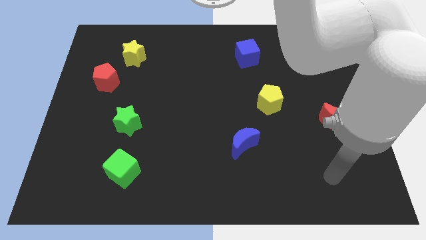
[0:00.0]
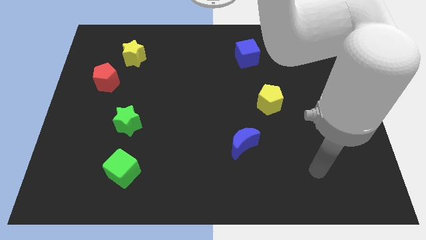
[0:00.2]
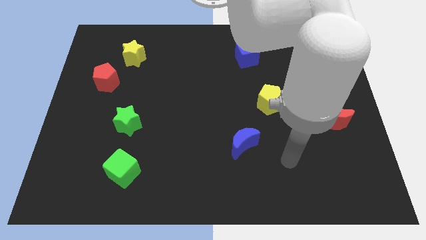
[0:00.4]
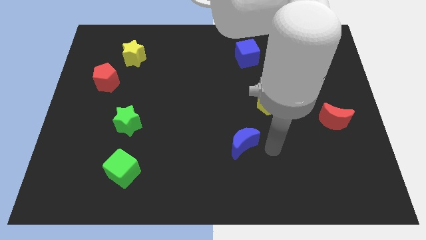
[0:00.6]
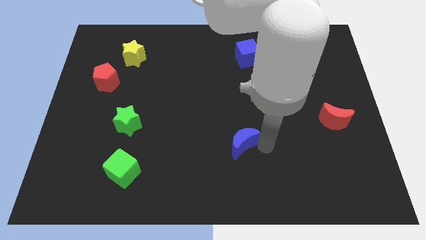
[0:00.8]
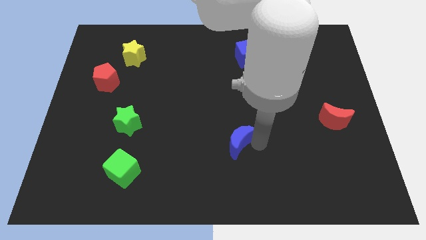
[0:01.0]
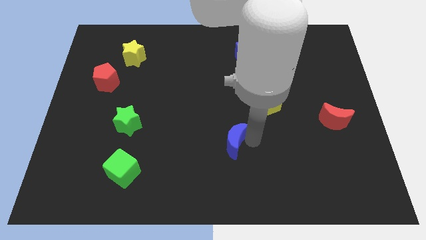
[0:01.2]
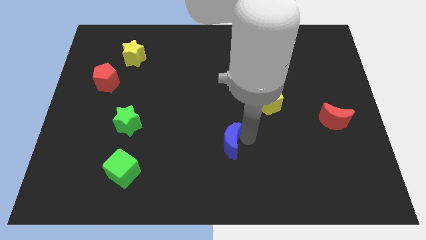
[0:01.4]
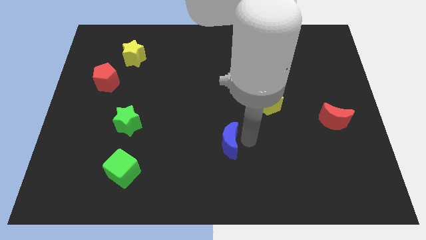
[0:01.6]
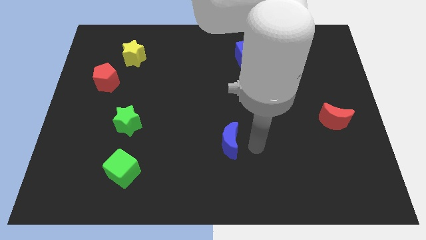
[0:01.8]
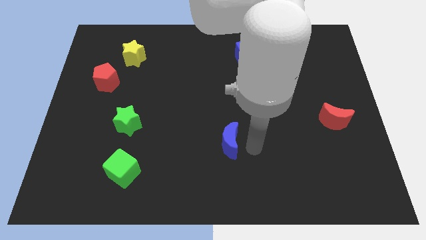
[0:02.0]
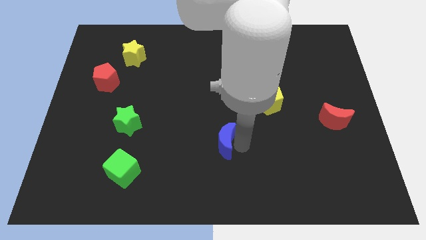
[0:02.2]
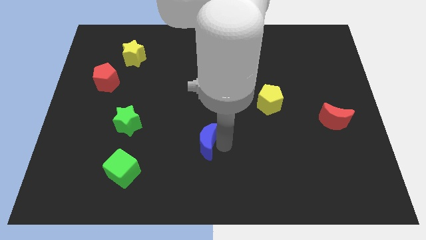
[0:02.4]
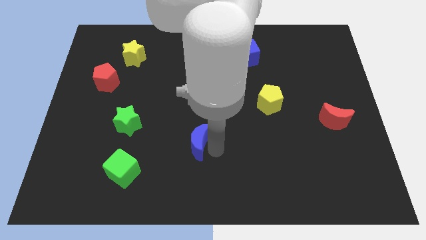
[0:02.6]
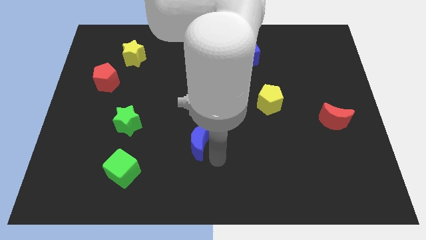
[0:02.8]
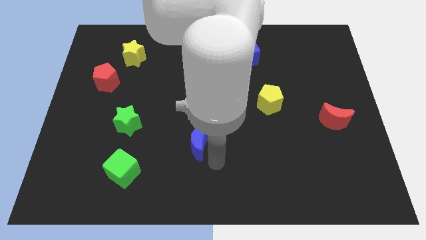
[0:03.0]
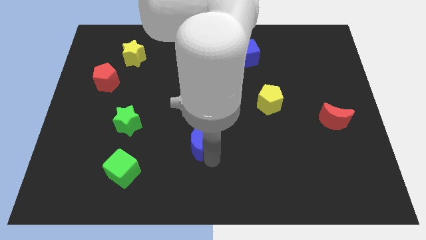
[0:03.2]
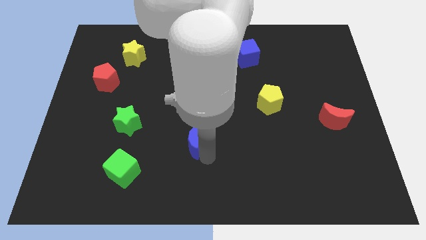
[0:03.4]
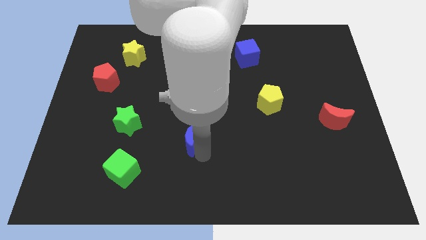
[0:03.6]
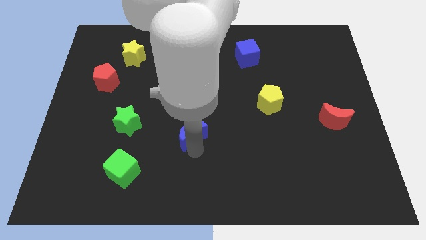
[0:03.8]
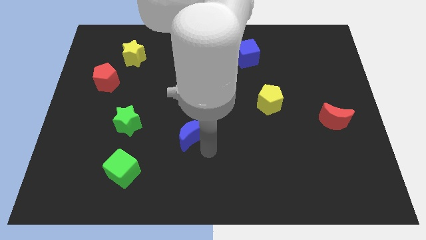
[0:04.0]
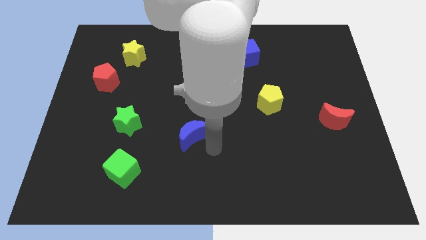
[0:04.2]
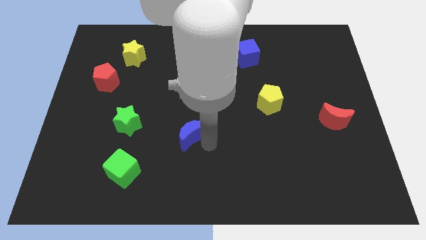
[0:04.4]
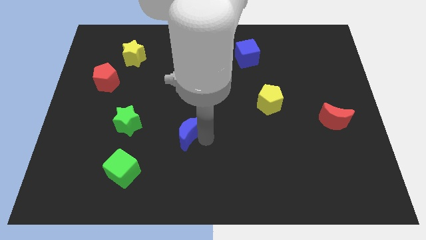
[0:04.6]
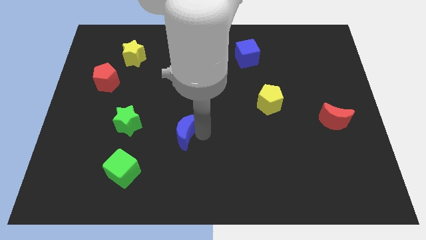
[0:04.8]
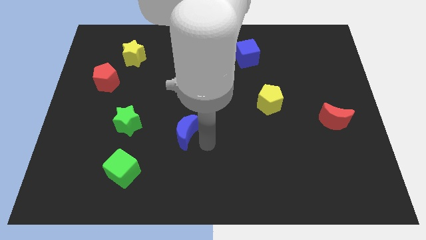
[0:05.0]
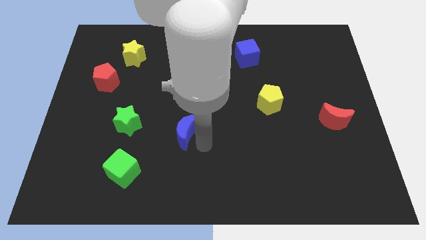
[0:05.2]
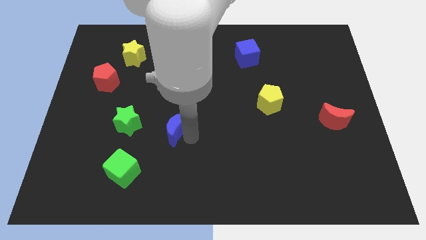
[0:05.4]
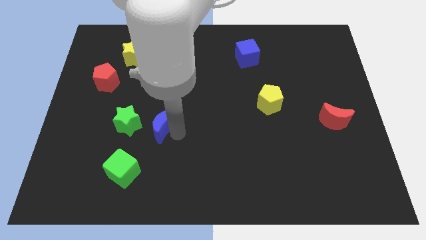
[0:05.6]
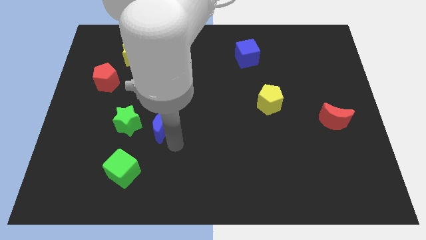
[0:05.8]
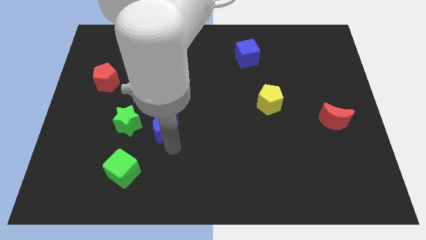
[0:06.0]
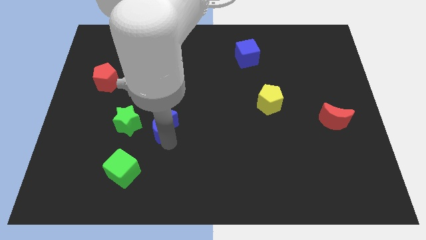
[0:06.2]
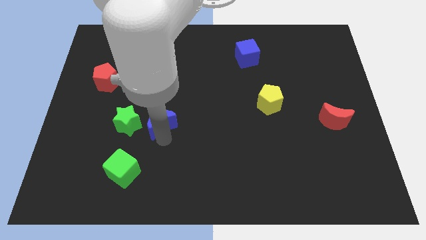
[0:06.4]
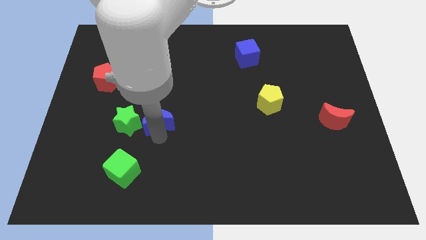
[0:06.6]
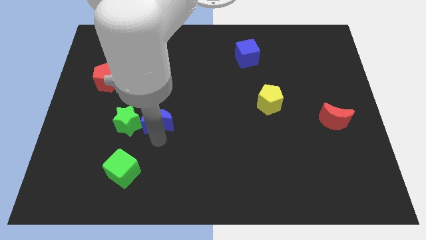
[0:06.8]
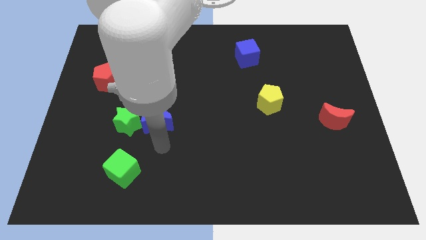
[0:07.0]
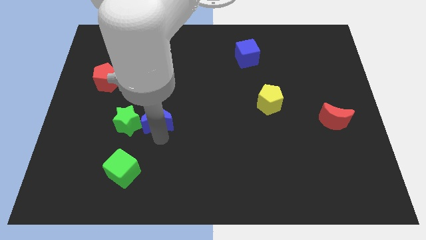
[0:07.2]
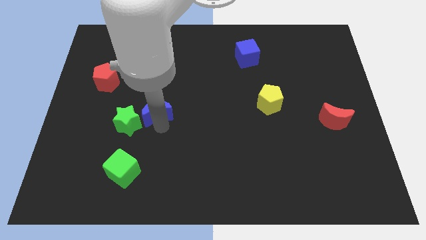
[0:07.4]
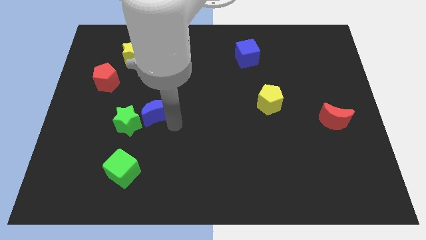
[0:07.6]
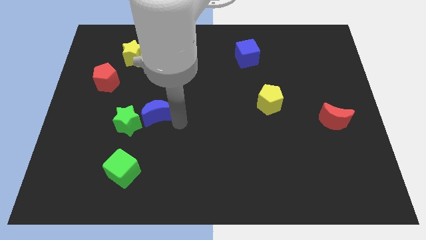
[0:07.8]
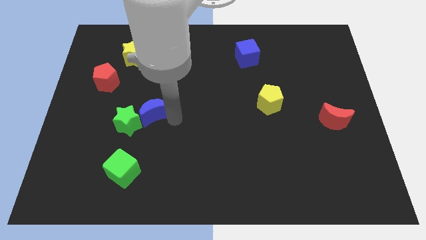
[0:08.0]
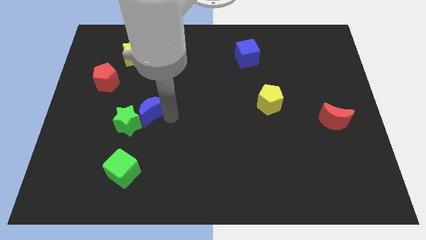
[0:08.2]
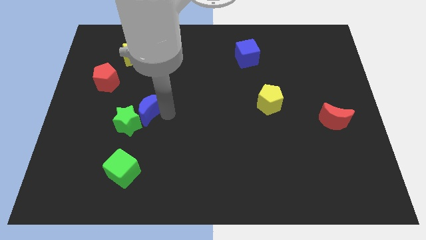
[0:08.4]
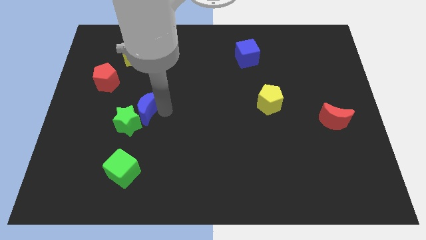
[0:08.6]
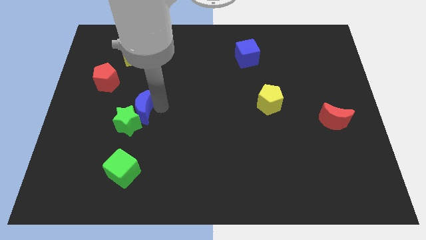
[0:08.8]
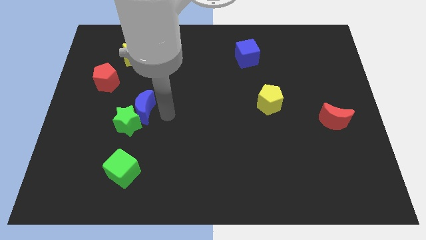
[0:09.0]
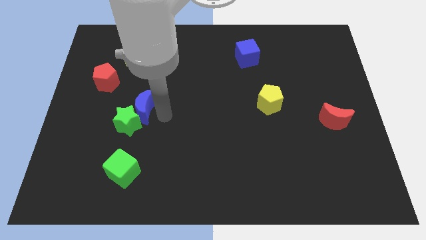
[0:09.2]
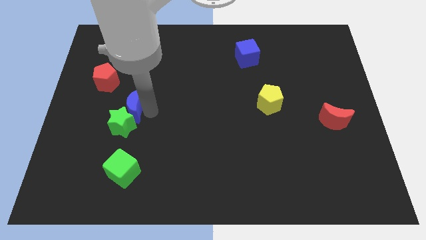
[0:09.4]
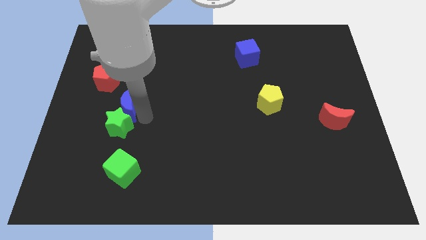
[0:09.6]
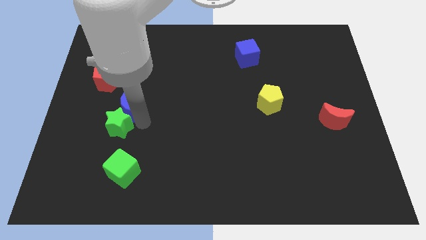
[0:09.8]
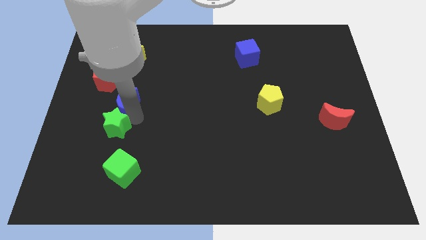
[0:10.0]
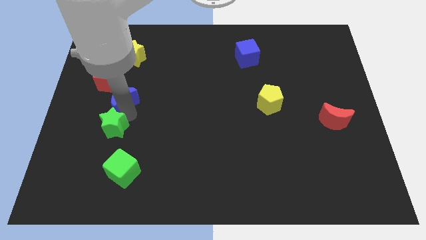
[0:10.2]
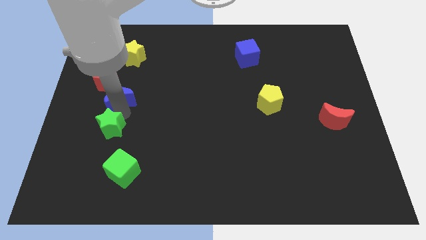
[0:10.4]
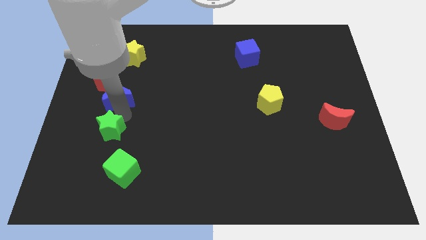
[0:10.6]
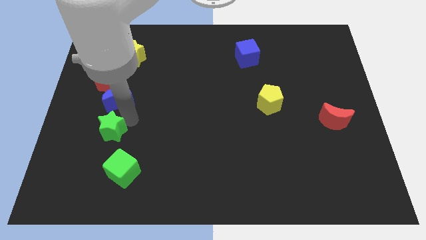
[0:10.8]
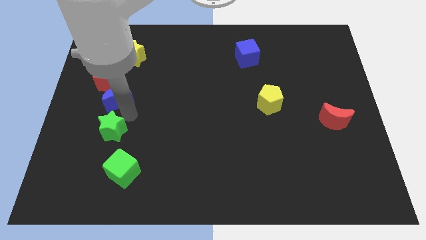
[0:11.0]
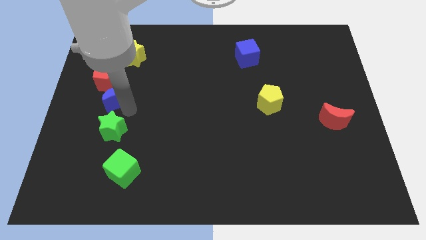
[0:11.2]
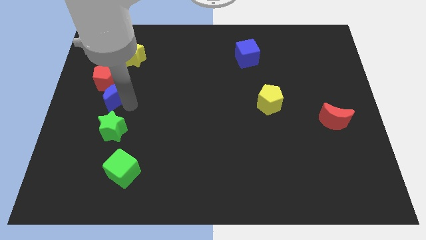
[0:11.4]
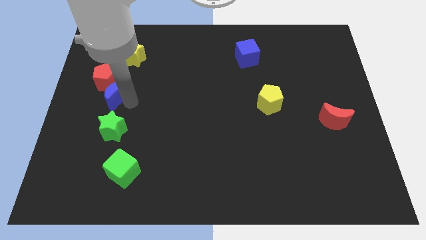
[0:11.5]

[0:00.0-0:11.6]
move the blue moon next to the red pentagon

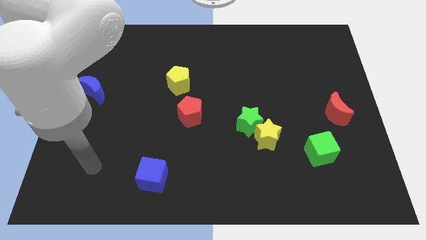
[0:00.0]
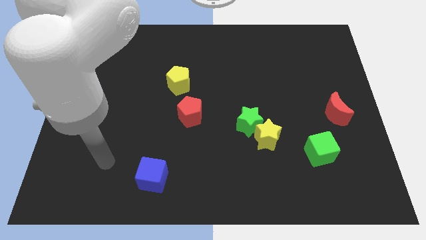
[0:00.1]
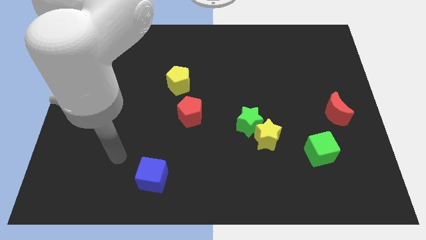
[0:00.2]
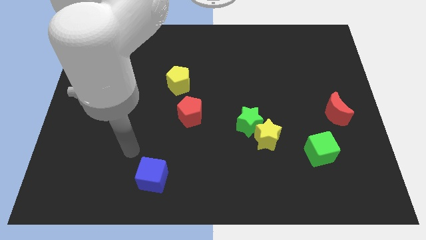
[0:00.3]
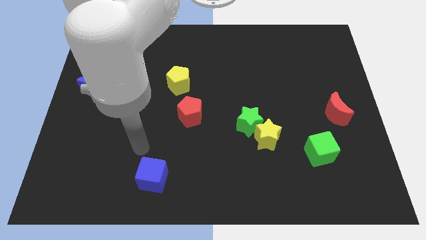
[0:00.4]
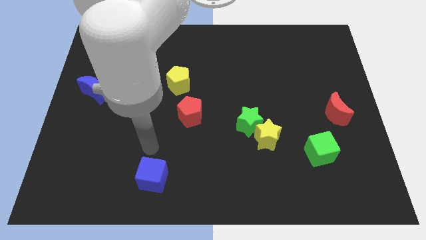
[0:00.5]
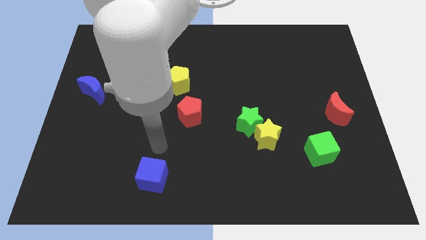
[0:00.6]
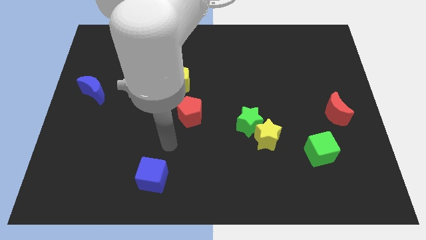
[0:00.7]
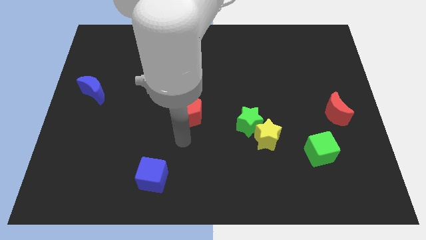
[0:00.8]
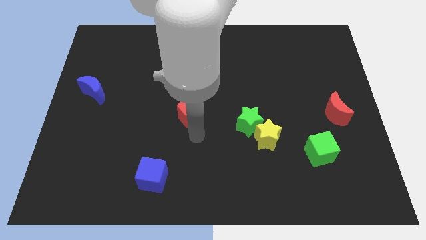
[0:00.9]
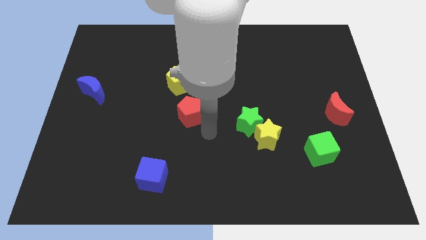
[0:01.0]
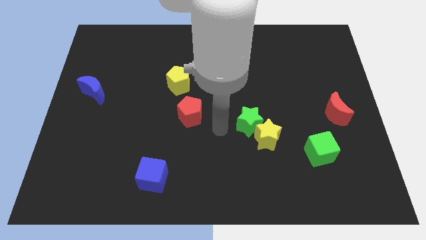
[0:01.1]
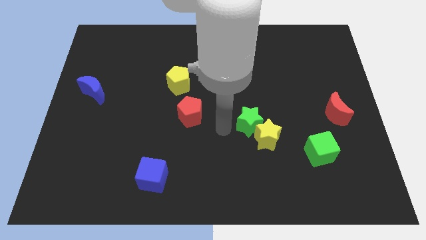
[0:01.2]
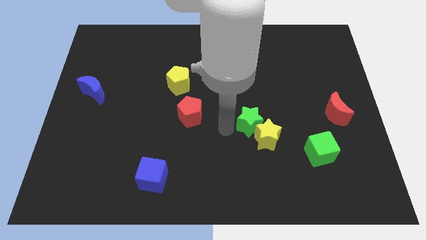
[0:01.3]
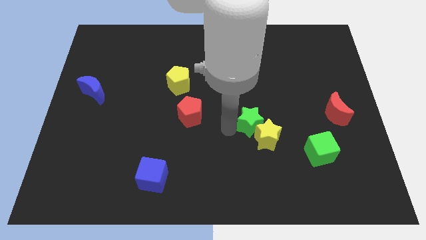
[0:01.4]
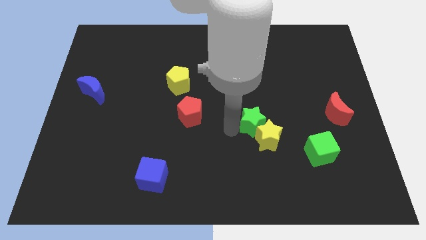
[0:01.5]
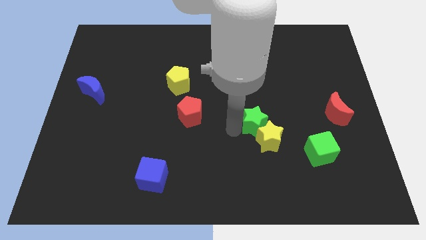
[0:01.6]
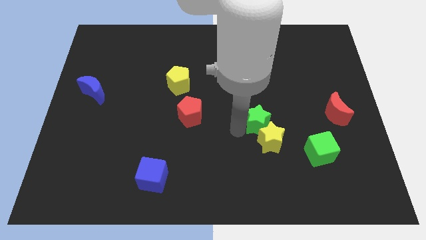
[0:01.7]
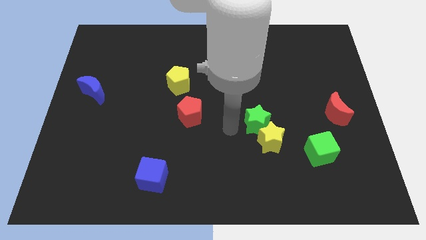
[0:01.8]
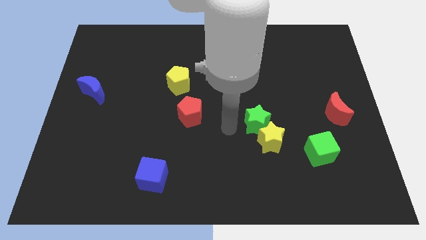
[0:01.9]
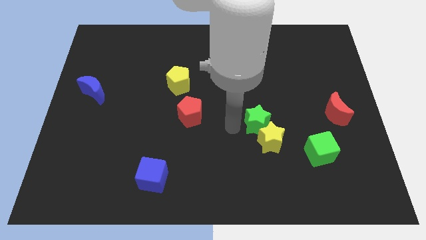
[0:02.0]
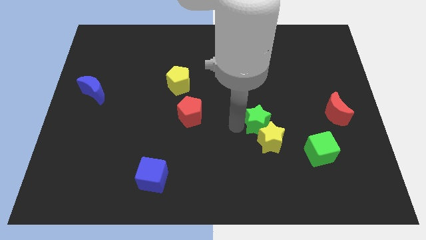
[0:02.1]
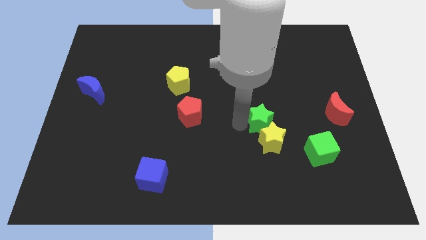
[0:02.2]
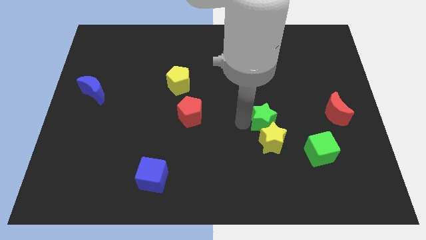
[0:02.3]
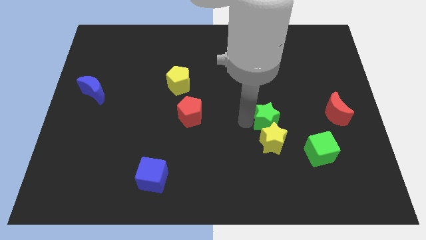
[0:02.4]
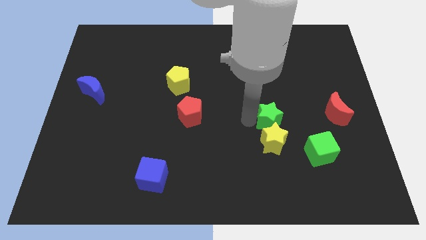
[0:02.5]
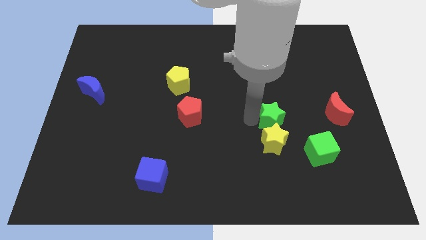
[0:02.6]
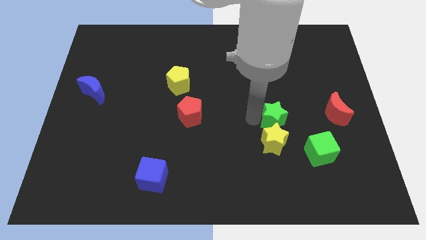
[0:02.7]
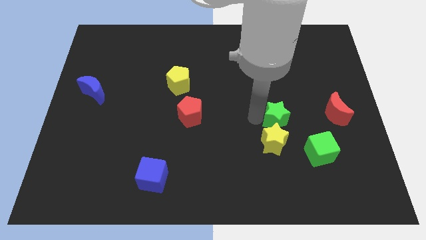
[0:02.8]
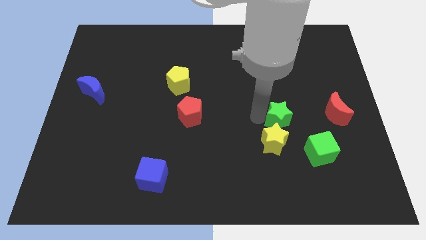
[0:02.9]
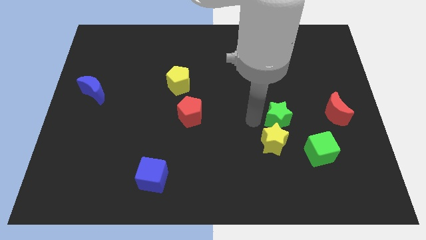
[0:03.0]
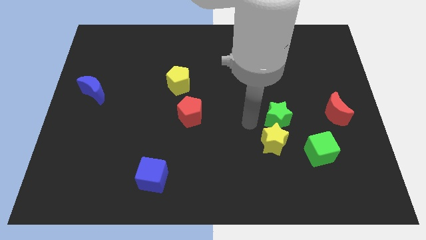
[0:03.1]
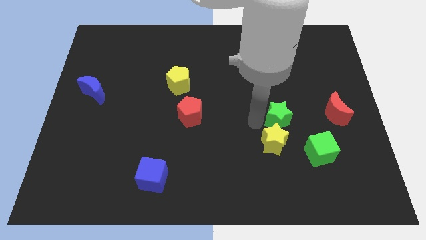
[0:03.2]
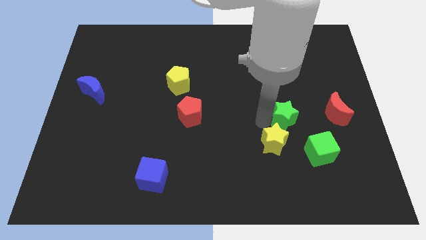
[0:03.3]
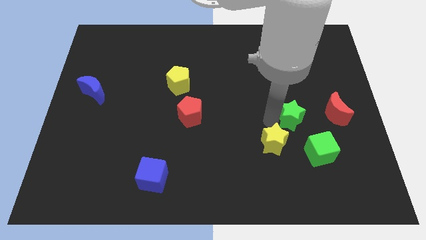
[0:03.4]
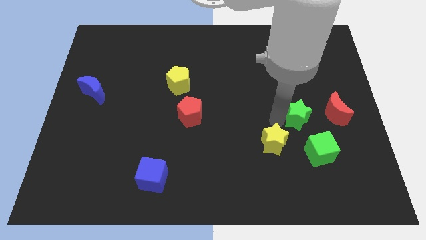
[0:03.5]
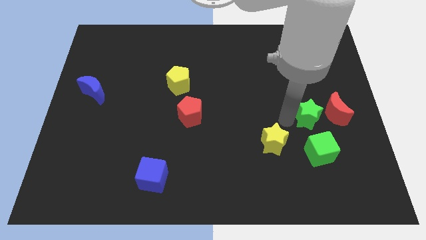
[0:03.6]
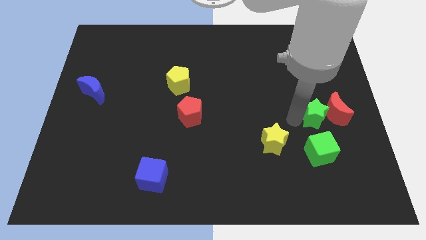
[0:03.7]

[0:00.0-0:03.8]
slide the green star close to the red moon
